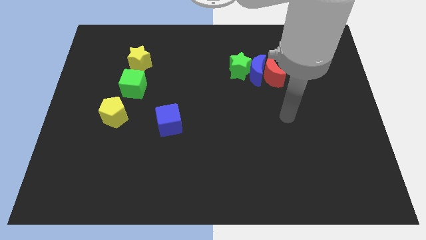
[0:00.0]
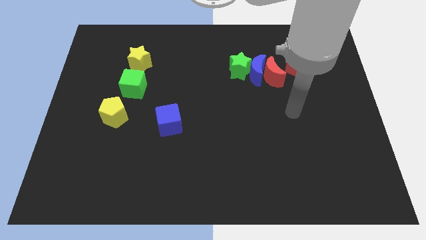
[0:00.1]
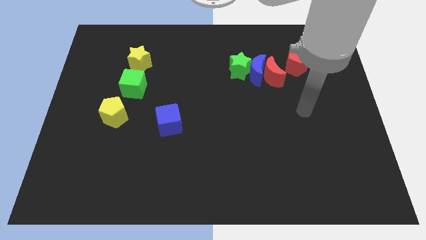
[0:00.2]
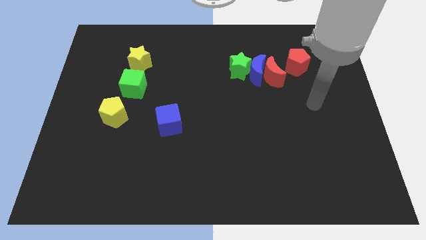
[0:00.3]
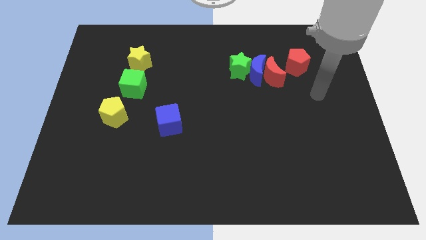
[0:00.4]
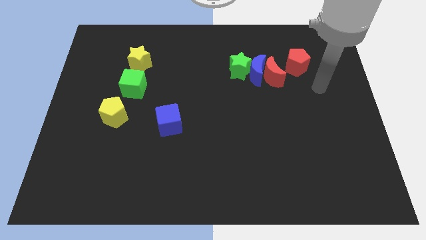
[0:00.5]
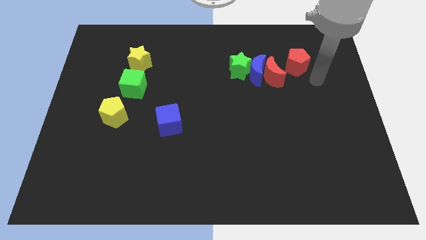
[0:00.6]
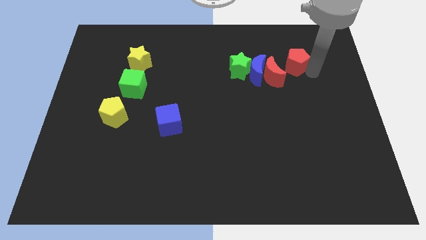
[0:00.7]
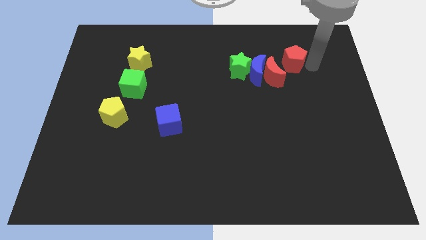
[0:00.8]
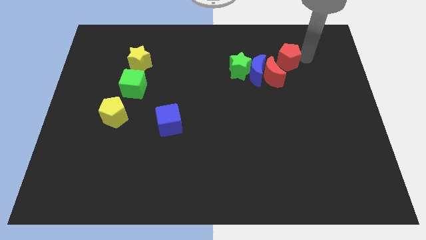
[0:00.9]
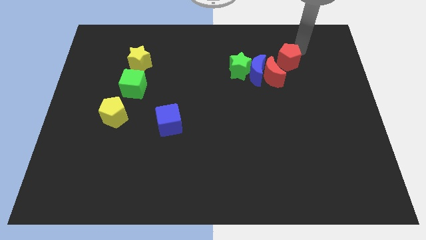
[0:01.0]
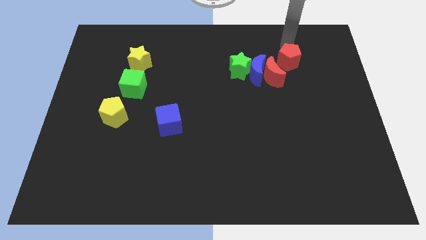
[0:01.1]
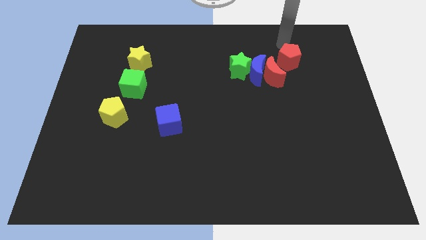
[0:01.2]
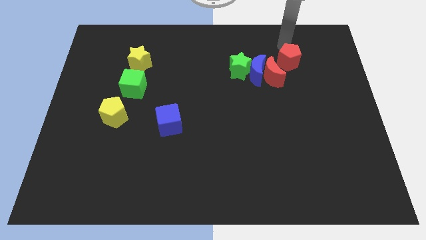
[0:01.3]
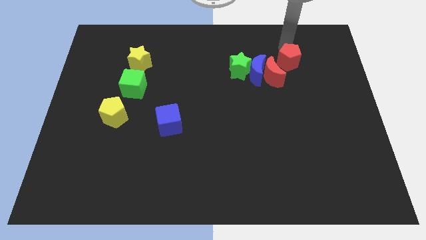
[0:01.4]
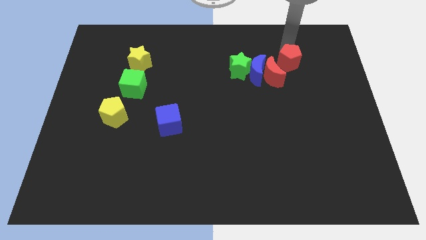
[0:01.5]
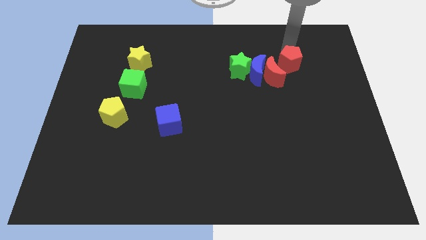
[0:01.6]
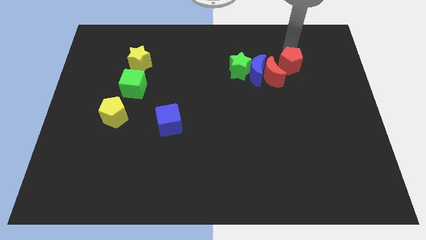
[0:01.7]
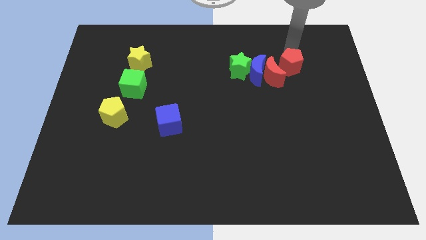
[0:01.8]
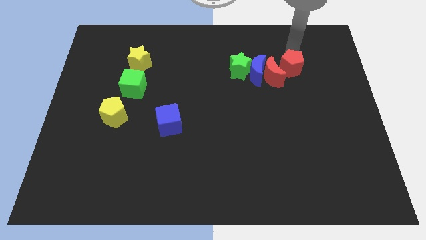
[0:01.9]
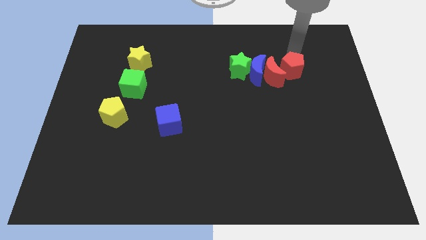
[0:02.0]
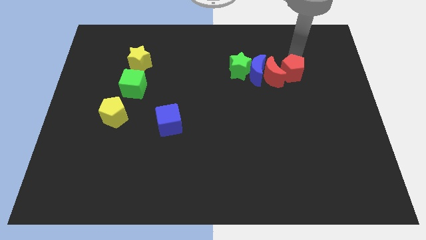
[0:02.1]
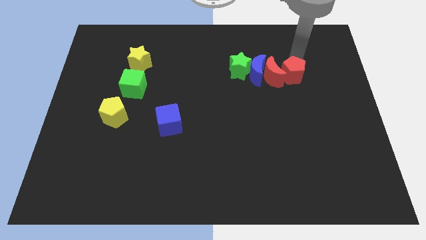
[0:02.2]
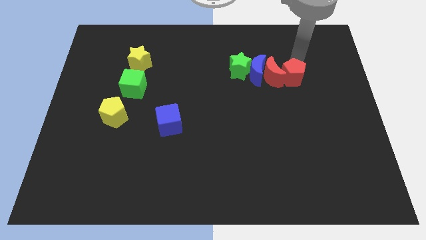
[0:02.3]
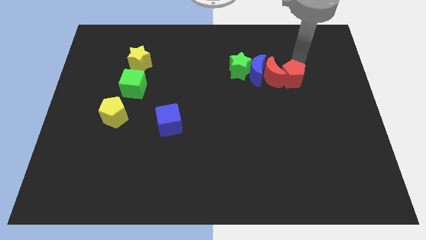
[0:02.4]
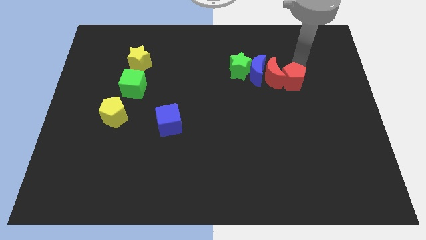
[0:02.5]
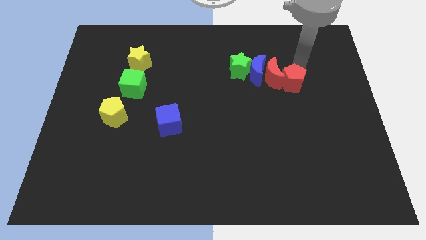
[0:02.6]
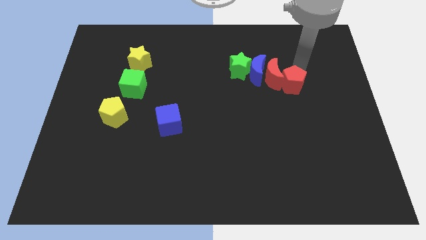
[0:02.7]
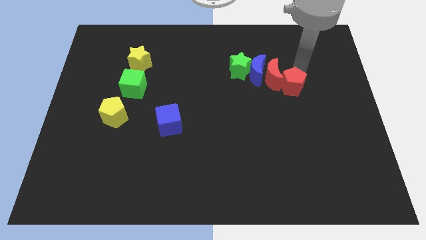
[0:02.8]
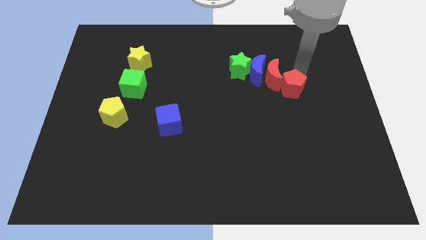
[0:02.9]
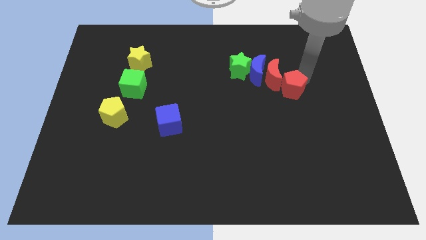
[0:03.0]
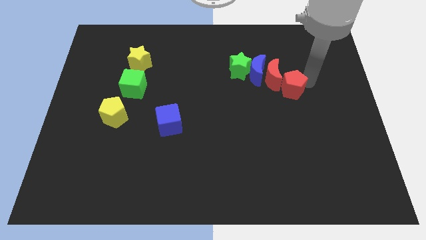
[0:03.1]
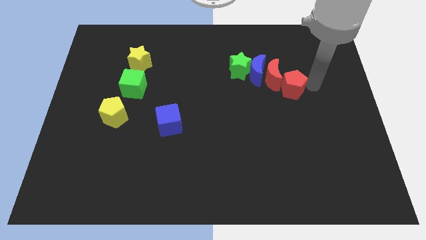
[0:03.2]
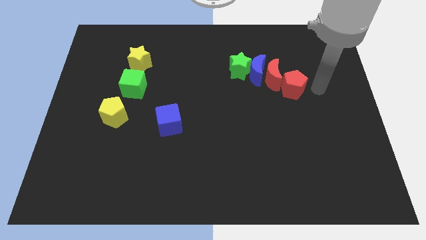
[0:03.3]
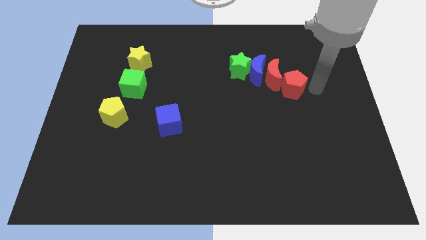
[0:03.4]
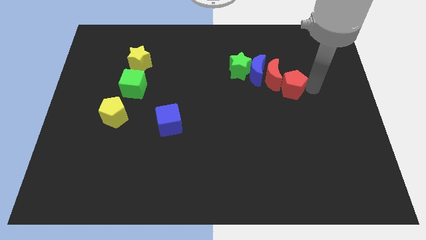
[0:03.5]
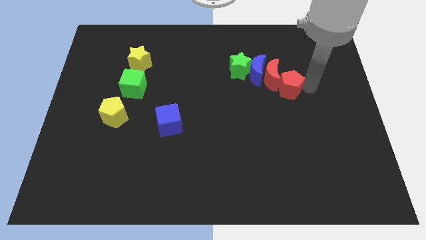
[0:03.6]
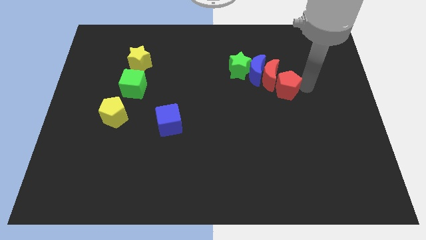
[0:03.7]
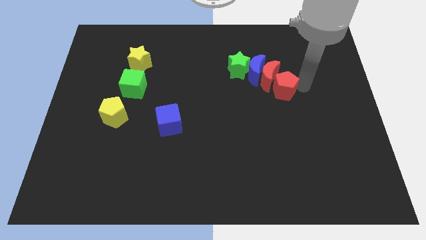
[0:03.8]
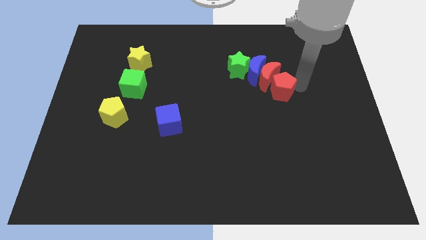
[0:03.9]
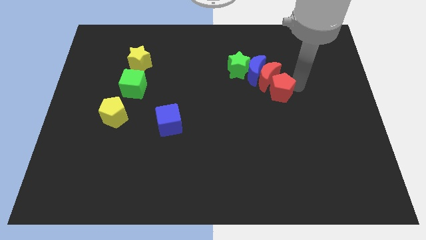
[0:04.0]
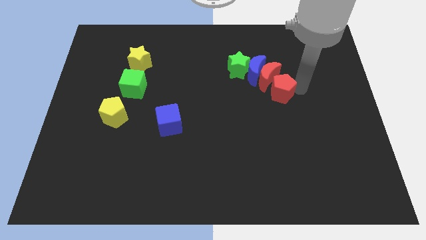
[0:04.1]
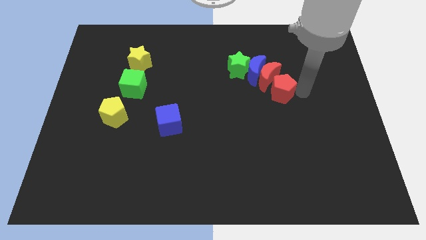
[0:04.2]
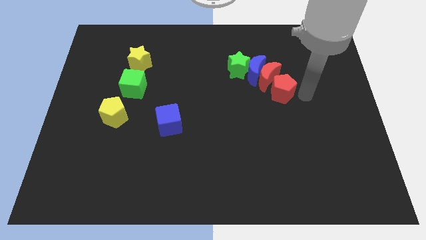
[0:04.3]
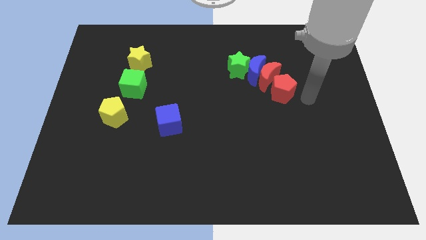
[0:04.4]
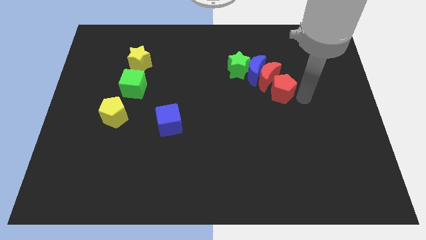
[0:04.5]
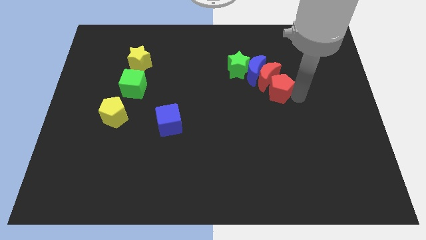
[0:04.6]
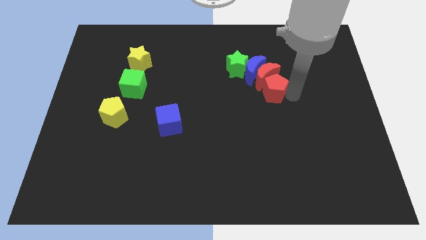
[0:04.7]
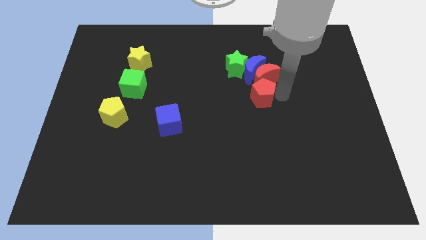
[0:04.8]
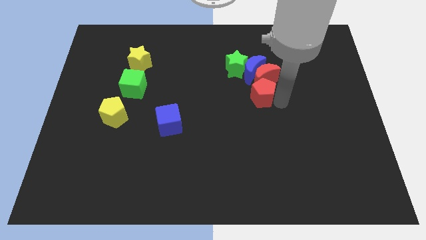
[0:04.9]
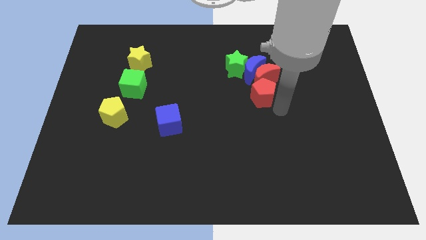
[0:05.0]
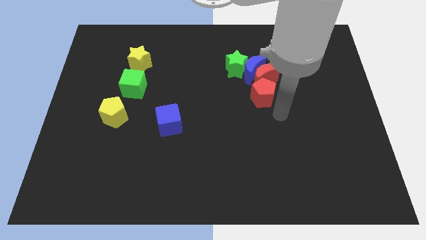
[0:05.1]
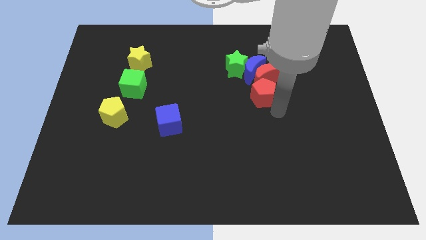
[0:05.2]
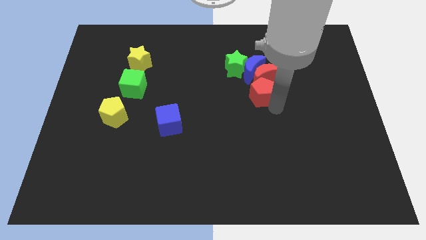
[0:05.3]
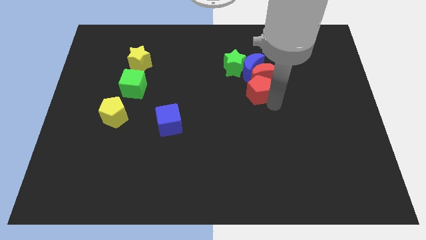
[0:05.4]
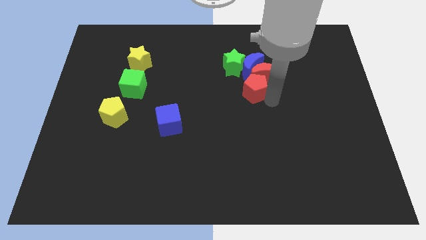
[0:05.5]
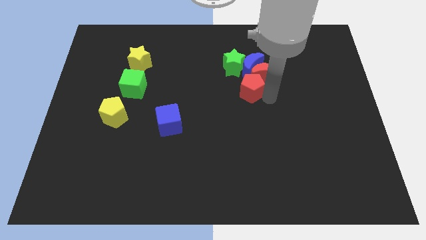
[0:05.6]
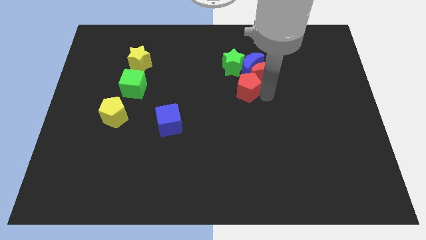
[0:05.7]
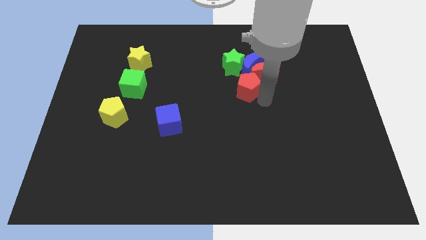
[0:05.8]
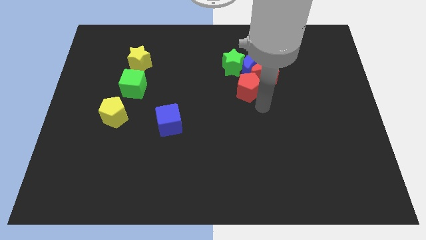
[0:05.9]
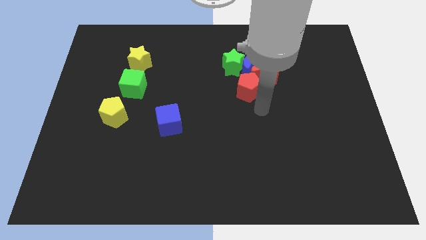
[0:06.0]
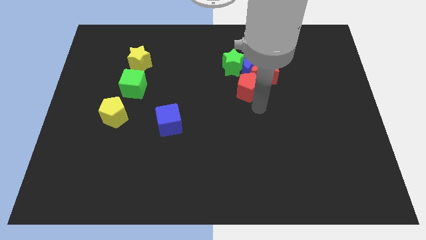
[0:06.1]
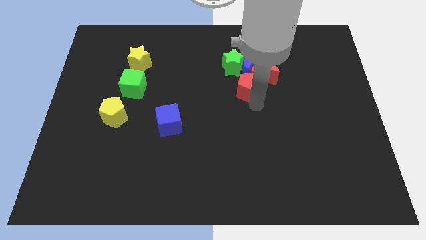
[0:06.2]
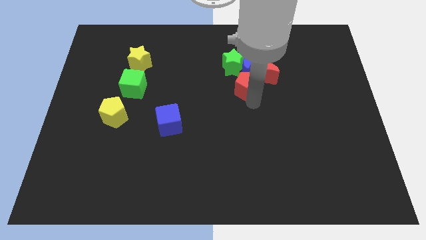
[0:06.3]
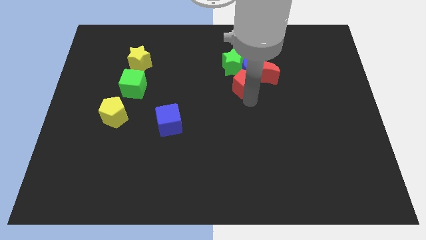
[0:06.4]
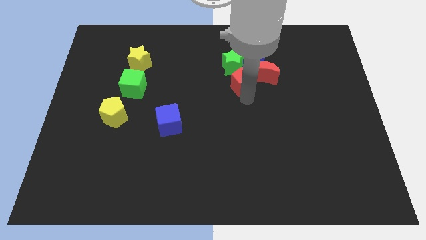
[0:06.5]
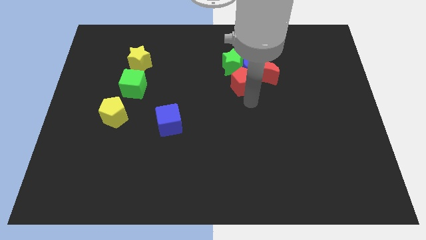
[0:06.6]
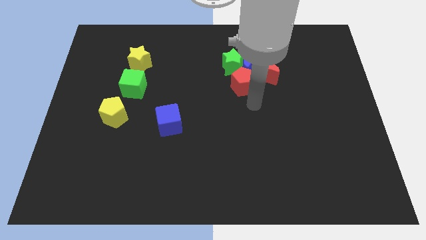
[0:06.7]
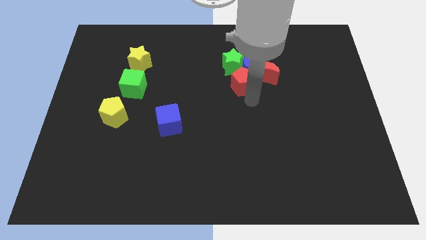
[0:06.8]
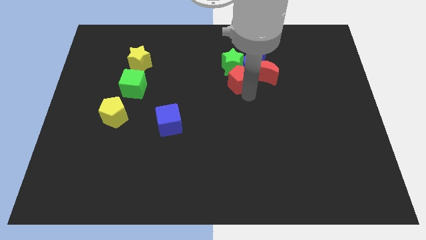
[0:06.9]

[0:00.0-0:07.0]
put the red pentagon to the green star
